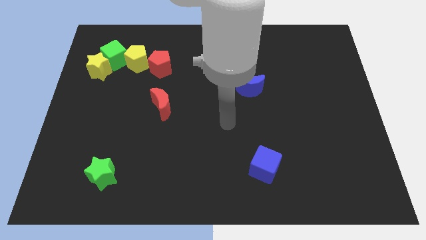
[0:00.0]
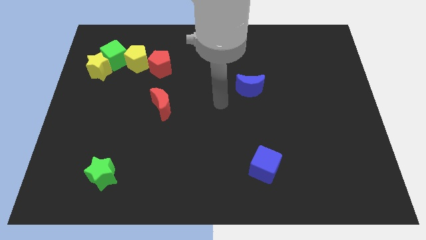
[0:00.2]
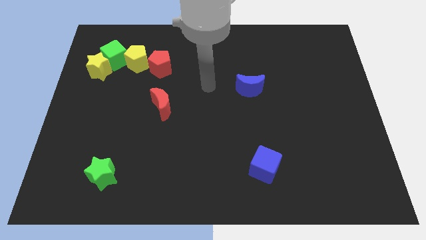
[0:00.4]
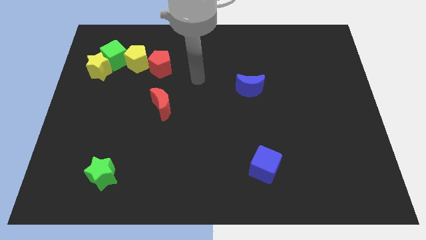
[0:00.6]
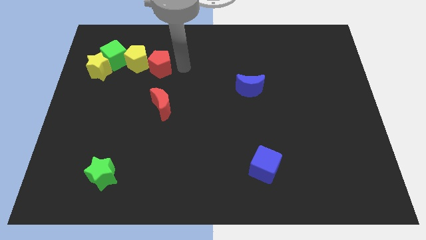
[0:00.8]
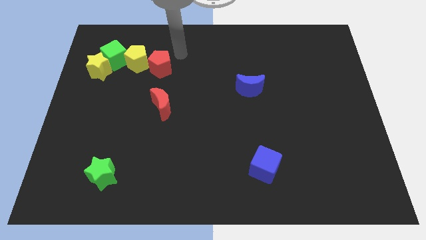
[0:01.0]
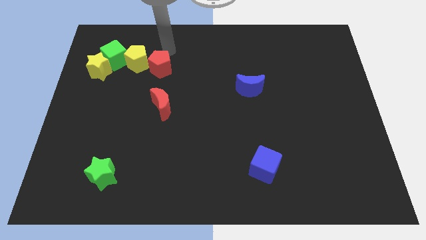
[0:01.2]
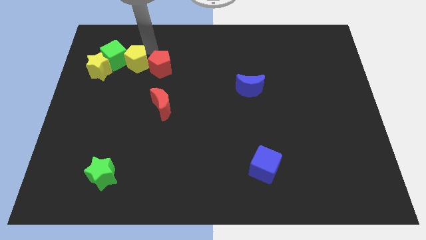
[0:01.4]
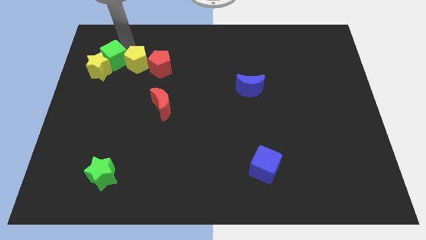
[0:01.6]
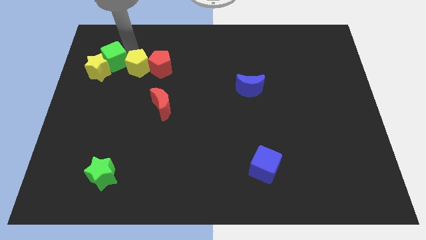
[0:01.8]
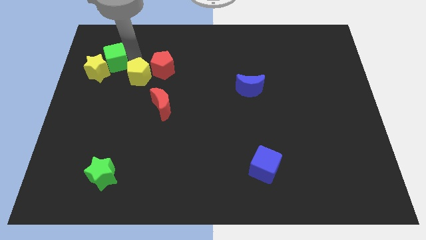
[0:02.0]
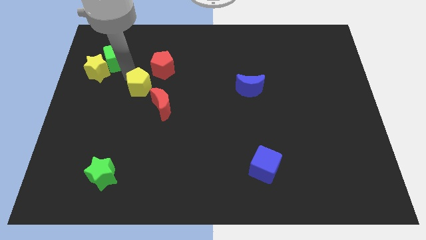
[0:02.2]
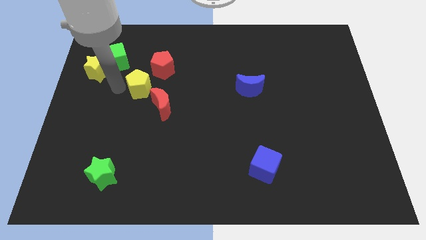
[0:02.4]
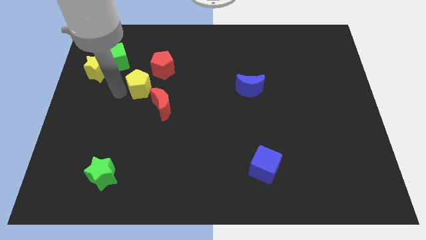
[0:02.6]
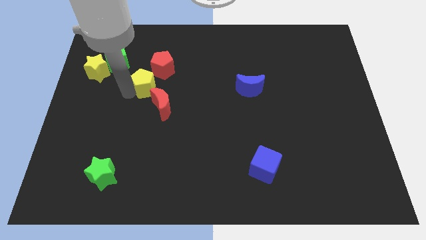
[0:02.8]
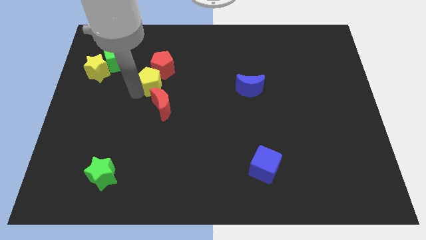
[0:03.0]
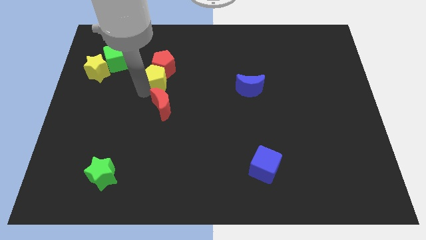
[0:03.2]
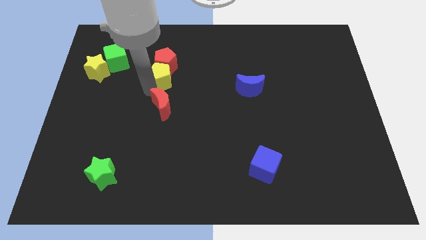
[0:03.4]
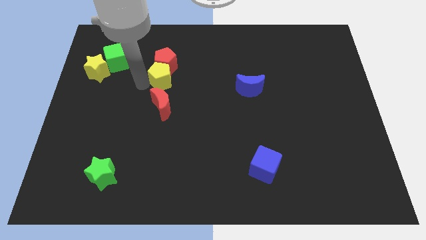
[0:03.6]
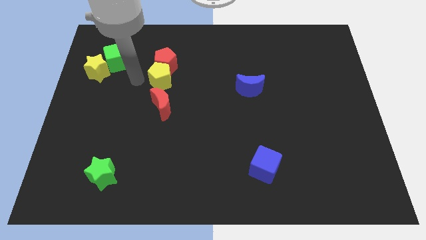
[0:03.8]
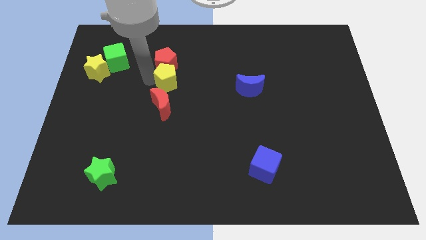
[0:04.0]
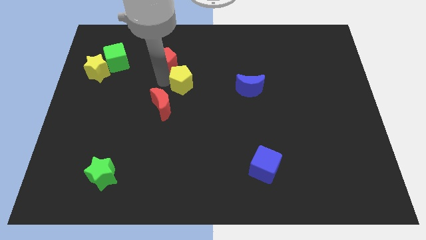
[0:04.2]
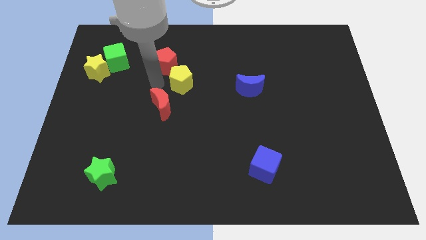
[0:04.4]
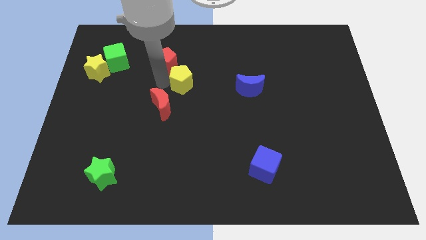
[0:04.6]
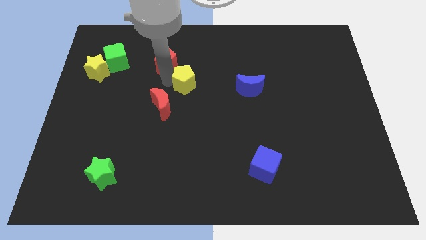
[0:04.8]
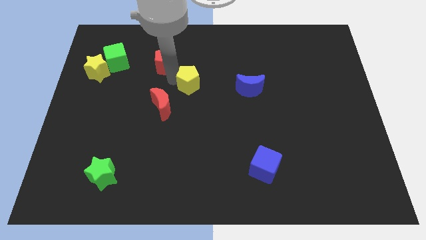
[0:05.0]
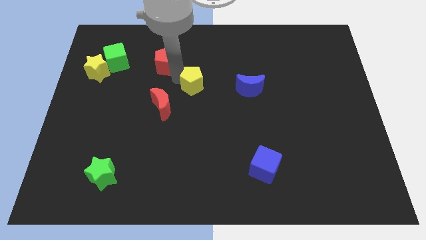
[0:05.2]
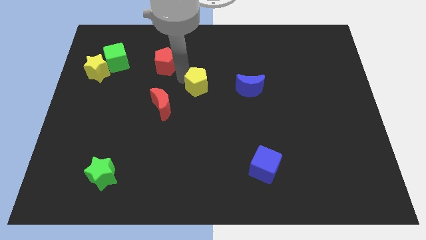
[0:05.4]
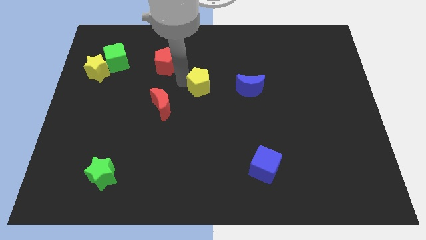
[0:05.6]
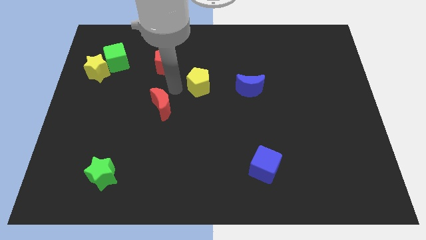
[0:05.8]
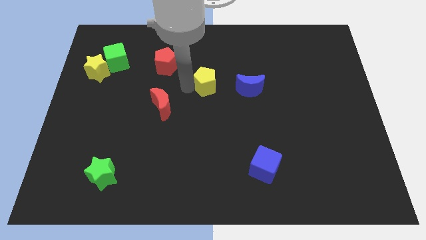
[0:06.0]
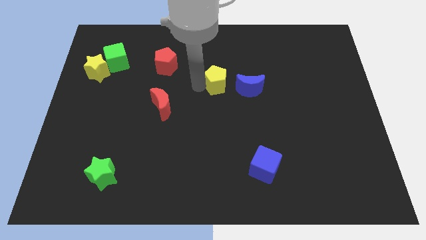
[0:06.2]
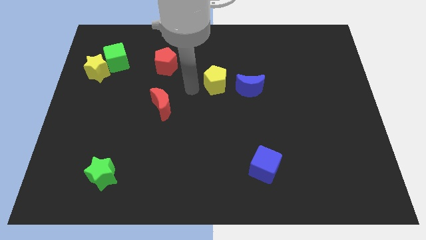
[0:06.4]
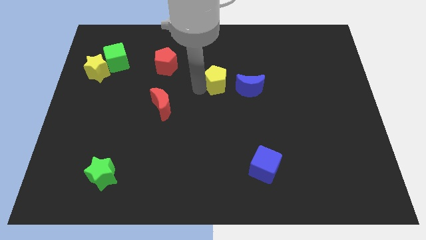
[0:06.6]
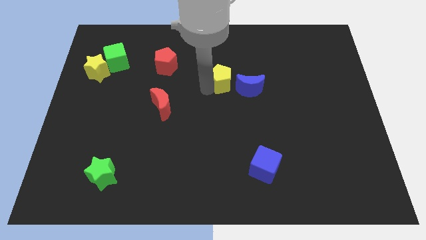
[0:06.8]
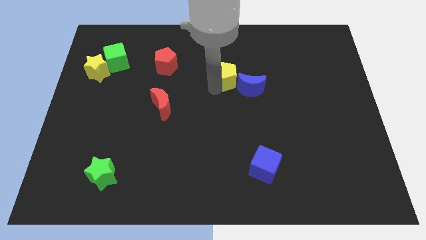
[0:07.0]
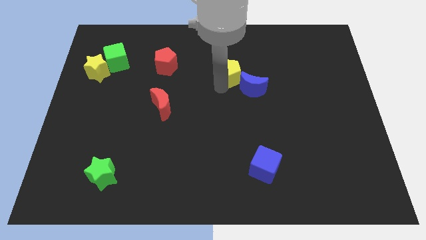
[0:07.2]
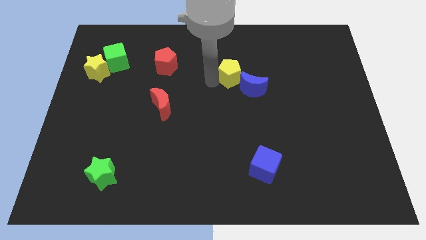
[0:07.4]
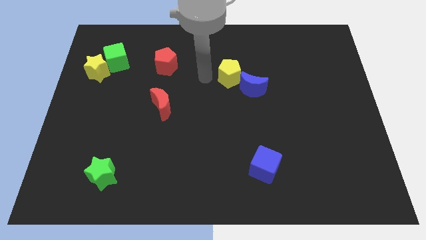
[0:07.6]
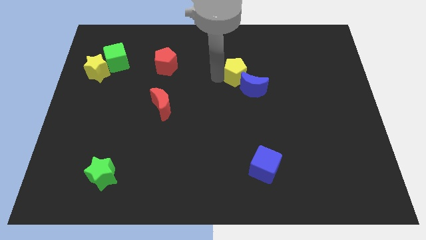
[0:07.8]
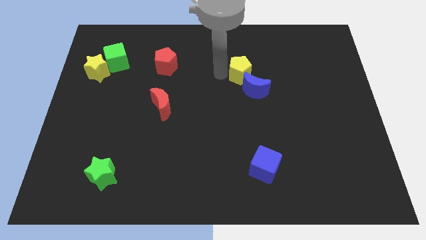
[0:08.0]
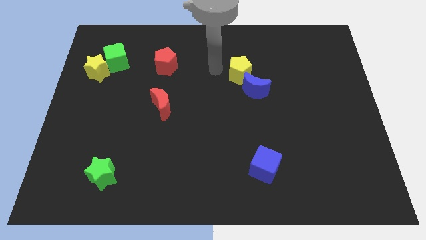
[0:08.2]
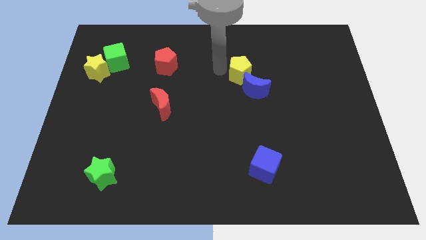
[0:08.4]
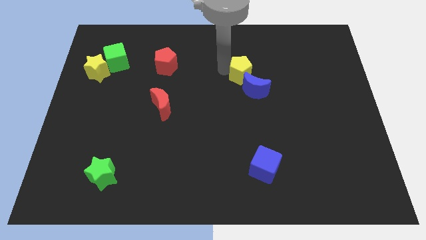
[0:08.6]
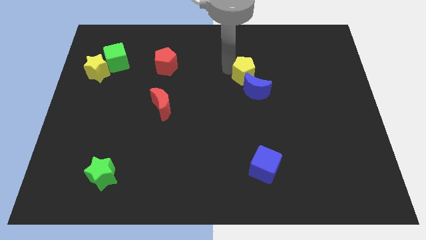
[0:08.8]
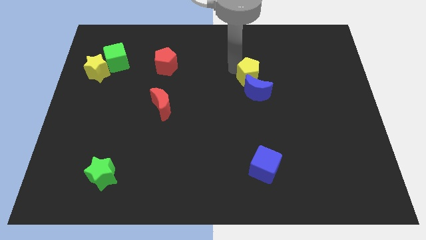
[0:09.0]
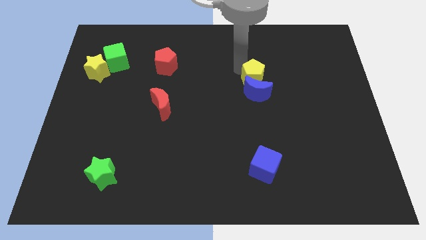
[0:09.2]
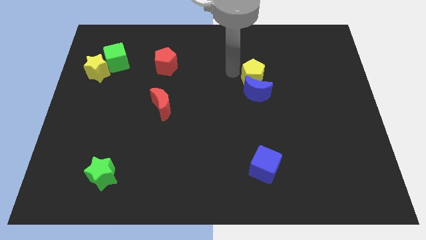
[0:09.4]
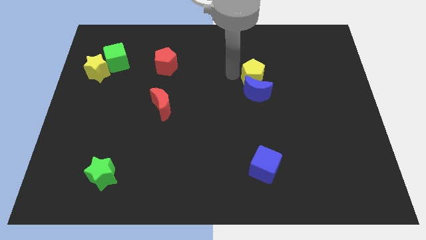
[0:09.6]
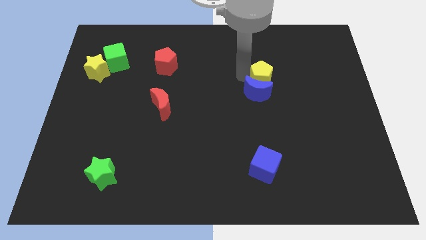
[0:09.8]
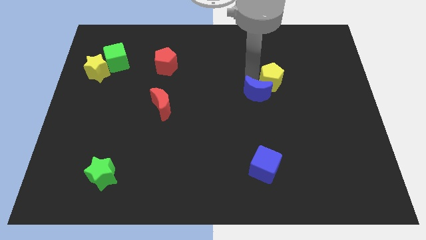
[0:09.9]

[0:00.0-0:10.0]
push the yellow pentagon just right of the blue moon

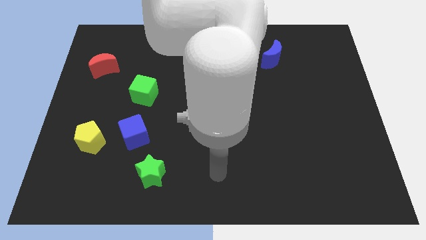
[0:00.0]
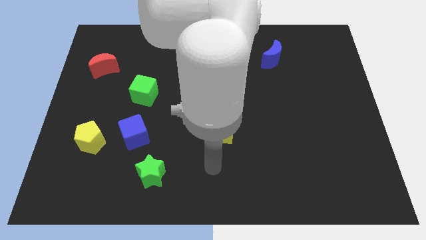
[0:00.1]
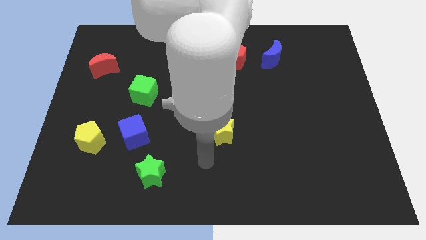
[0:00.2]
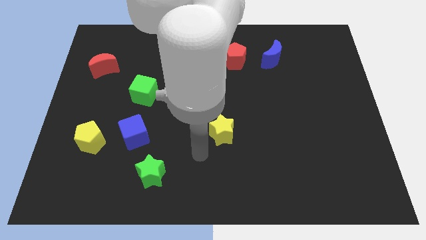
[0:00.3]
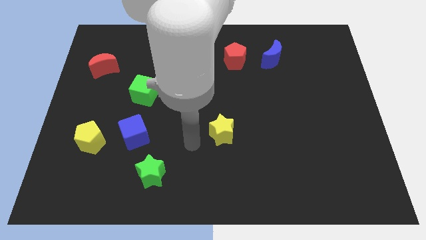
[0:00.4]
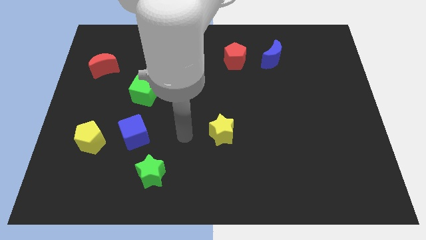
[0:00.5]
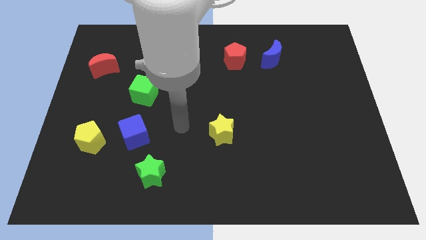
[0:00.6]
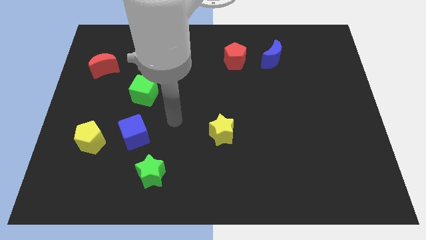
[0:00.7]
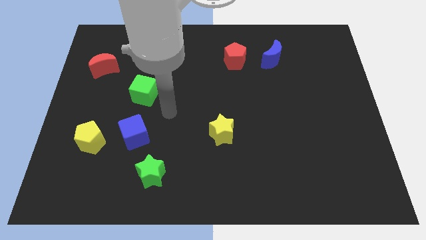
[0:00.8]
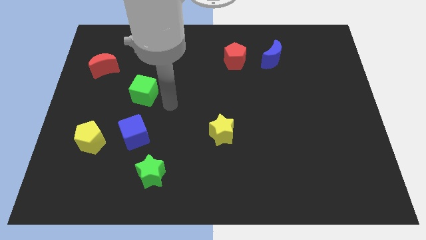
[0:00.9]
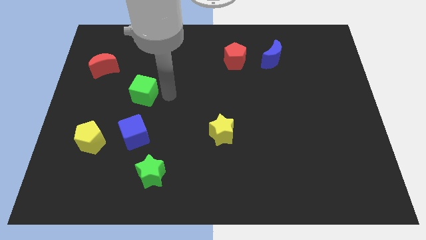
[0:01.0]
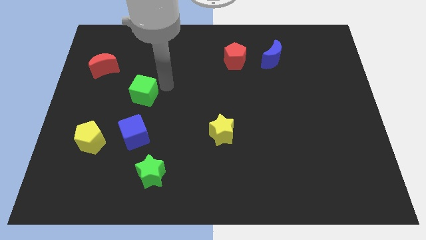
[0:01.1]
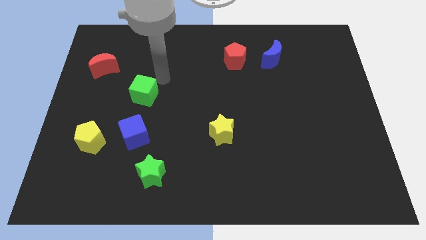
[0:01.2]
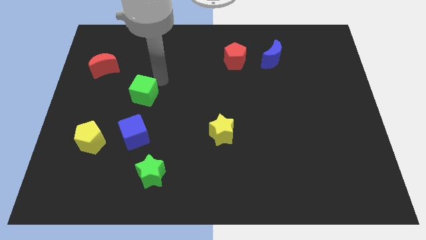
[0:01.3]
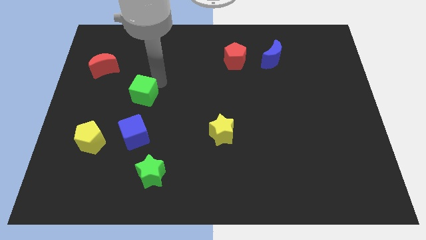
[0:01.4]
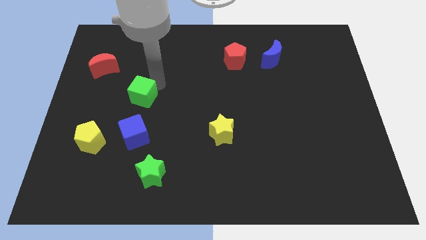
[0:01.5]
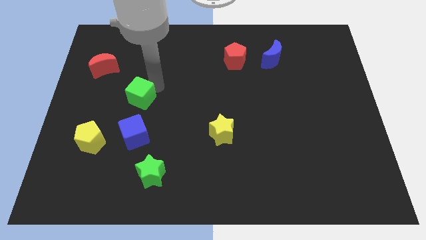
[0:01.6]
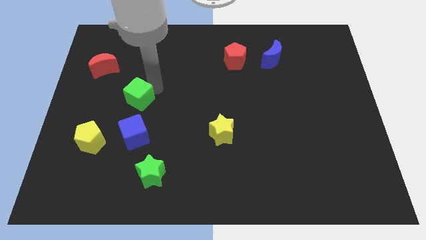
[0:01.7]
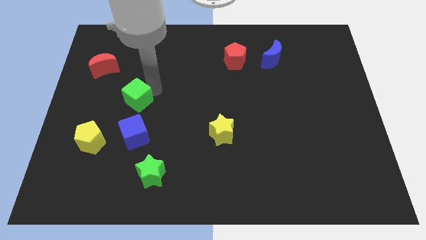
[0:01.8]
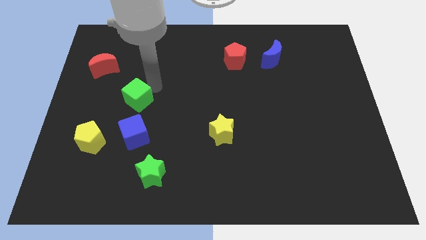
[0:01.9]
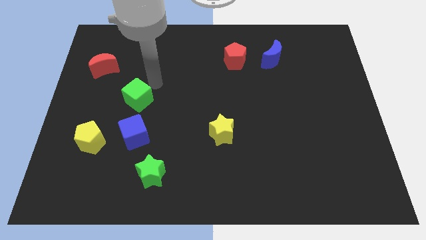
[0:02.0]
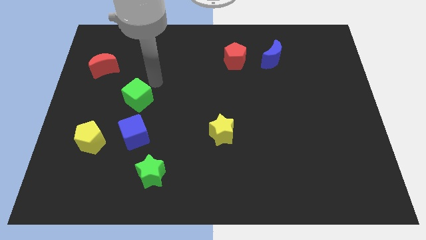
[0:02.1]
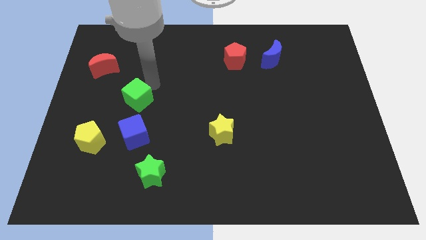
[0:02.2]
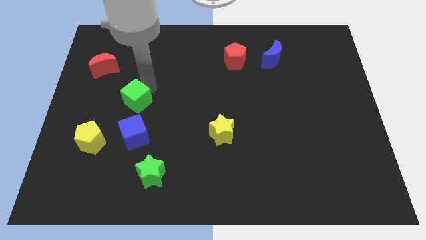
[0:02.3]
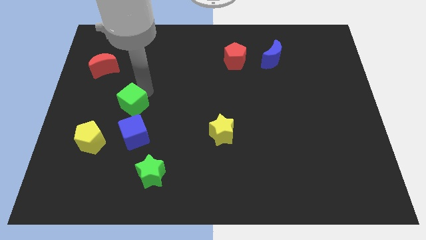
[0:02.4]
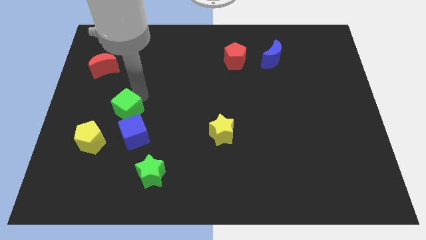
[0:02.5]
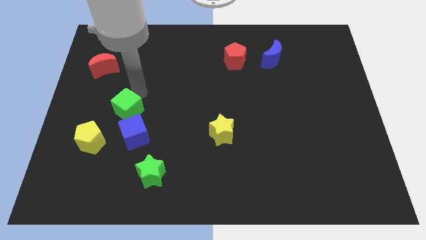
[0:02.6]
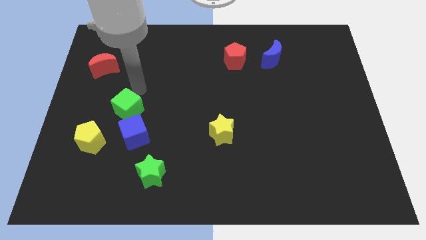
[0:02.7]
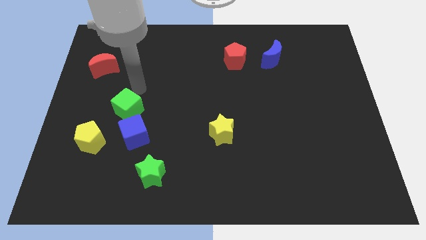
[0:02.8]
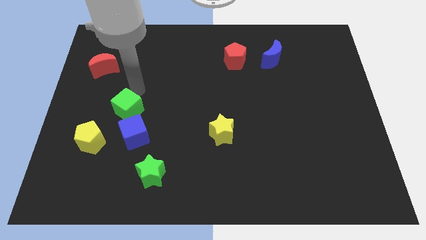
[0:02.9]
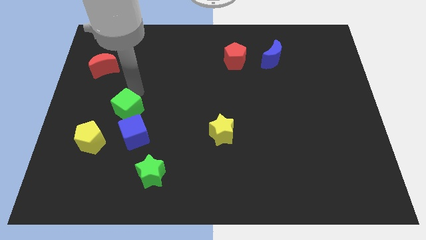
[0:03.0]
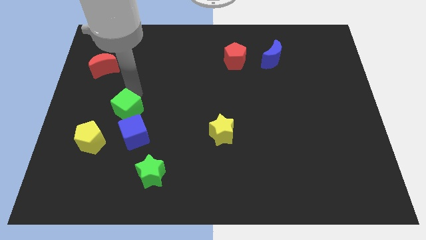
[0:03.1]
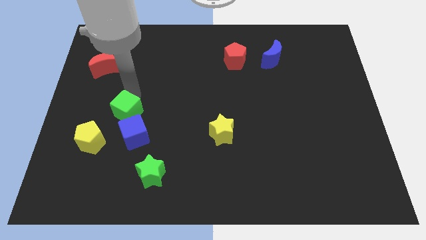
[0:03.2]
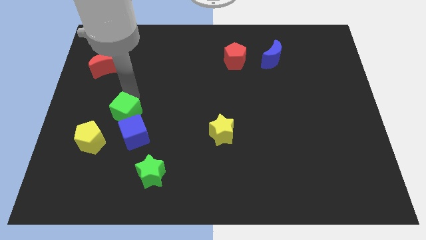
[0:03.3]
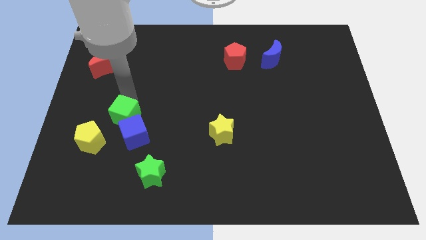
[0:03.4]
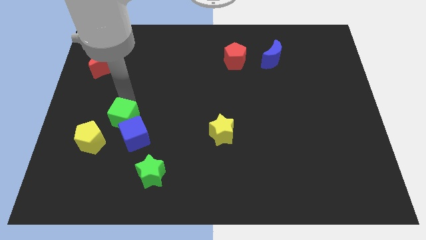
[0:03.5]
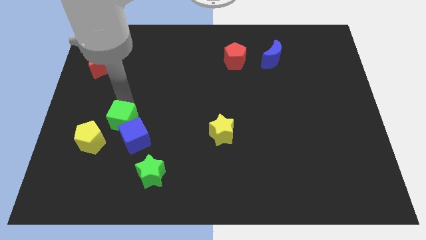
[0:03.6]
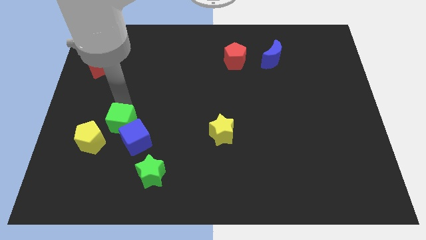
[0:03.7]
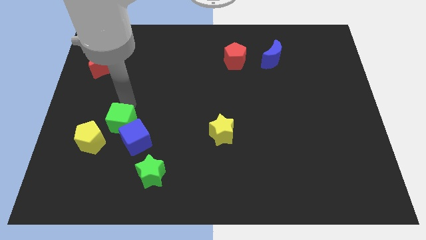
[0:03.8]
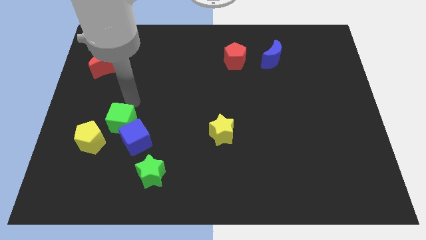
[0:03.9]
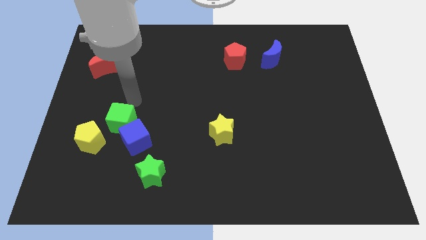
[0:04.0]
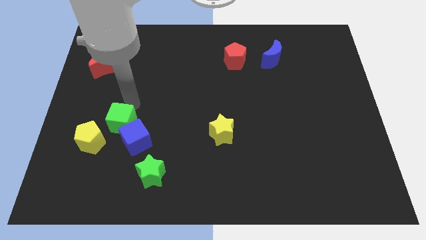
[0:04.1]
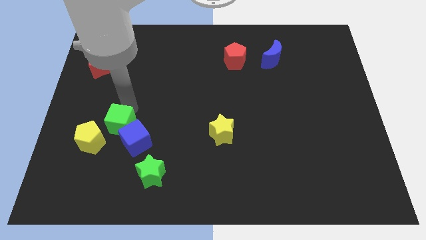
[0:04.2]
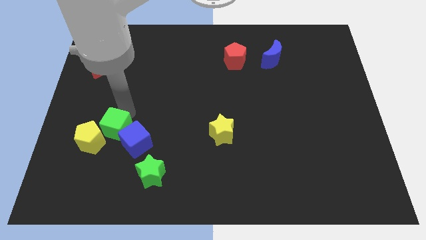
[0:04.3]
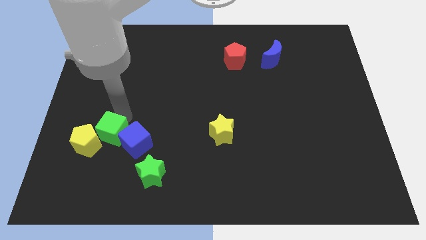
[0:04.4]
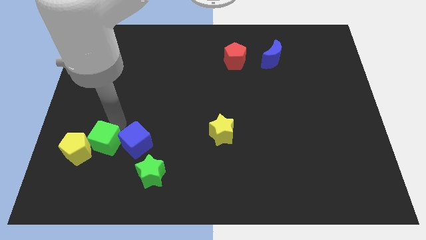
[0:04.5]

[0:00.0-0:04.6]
slide the green cube to the bottom left side of the blue cube
